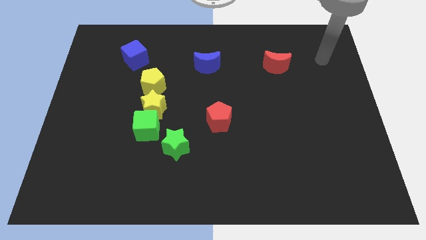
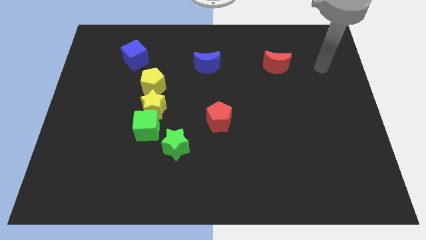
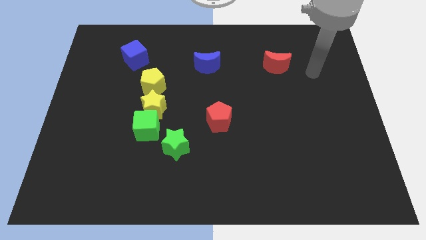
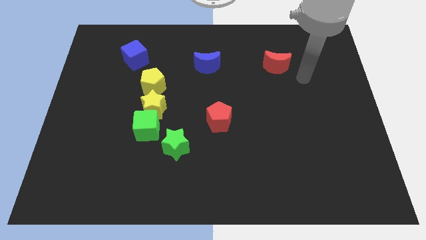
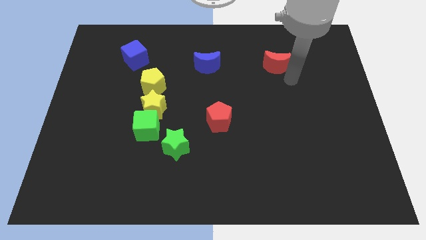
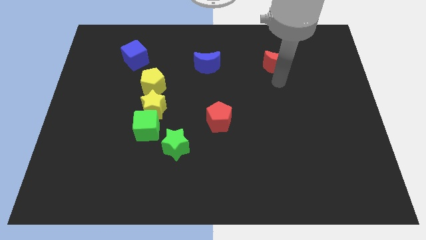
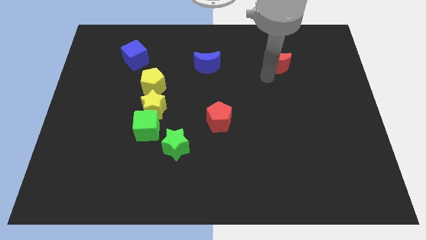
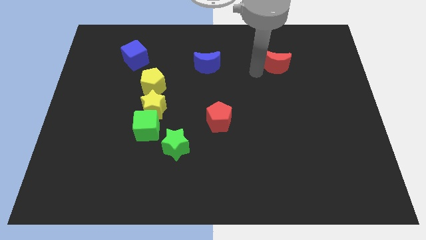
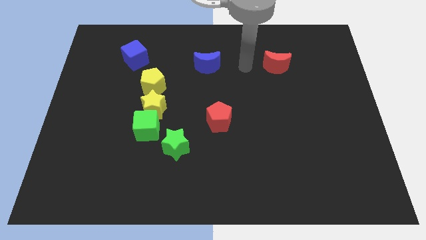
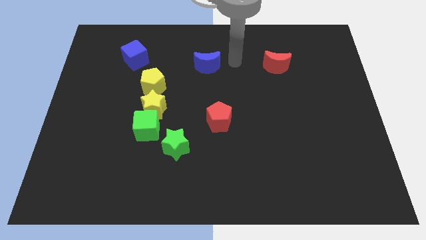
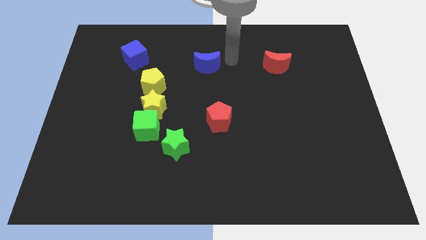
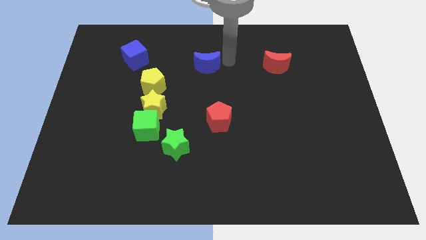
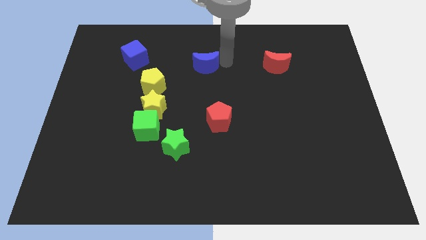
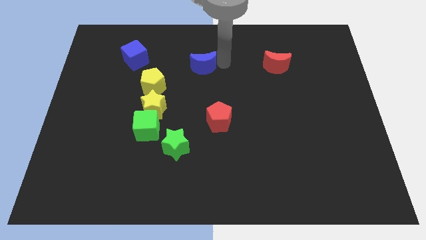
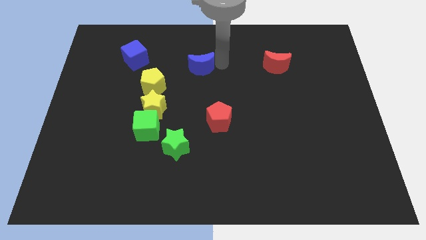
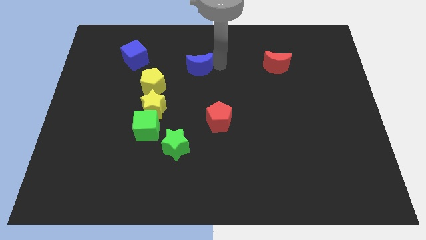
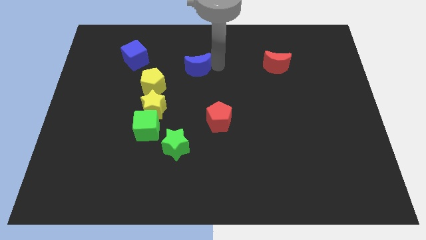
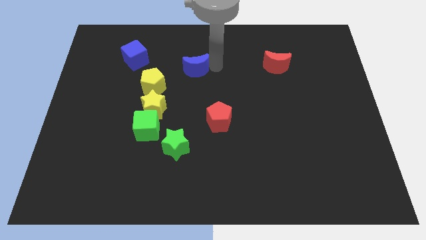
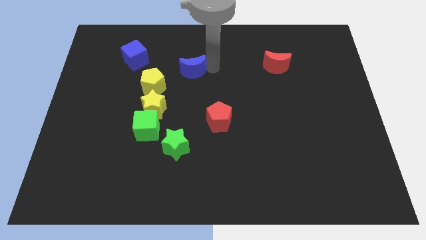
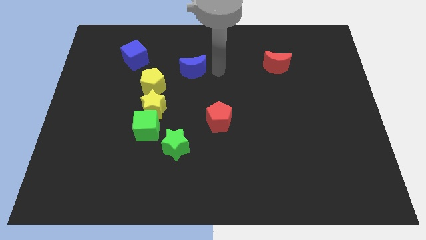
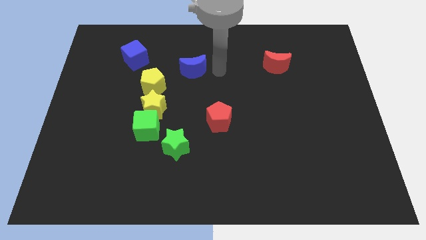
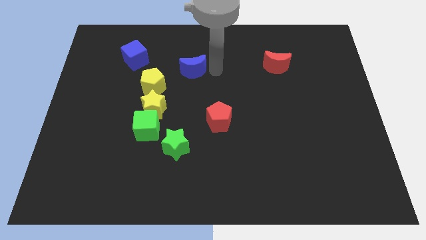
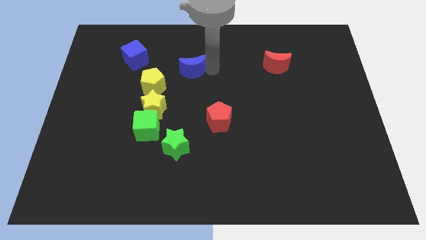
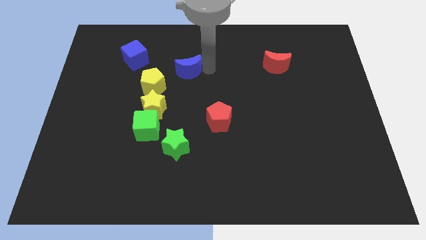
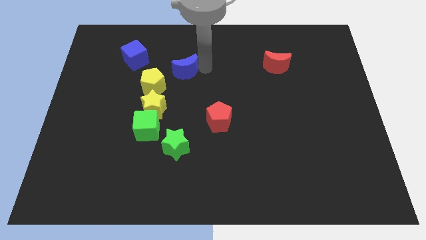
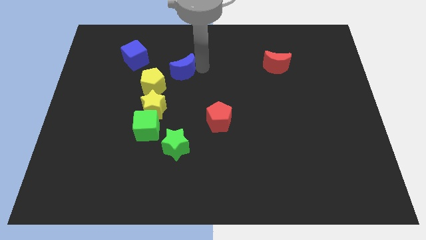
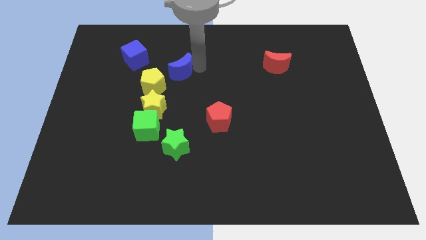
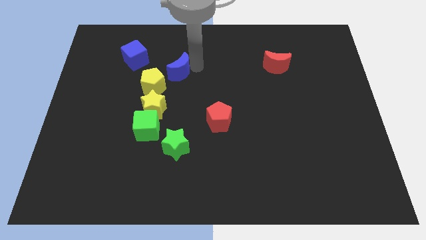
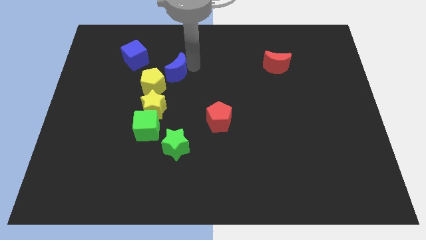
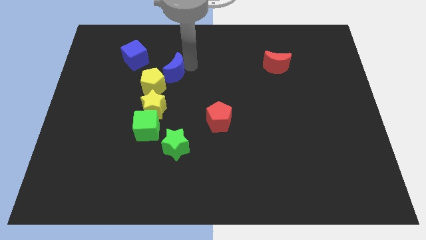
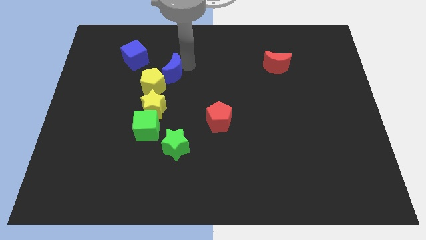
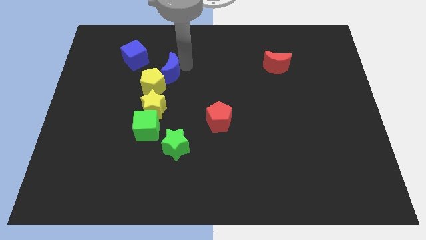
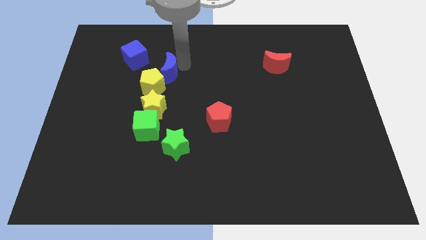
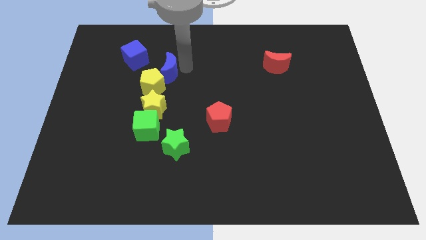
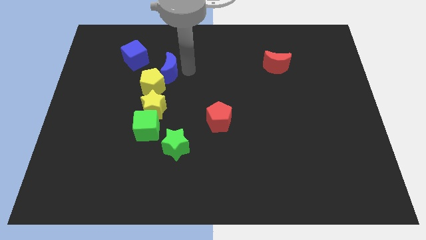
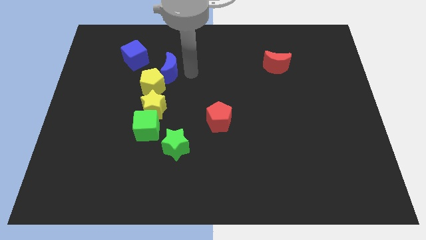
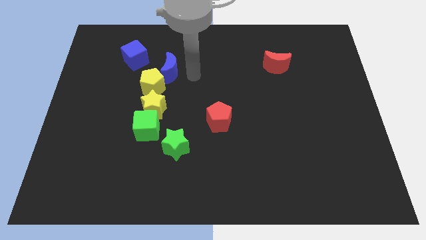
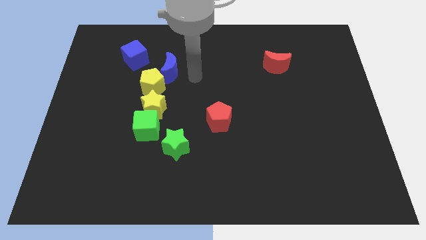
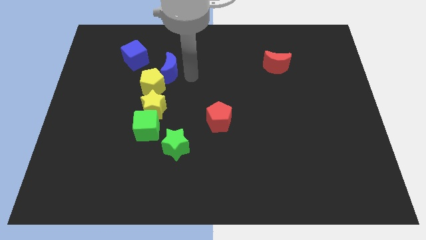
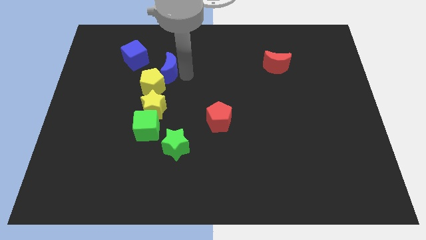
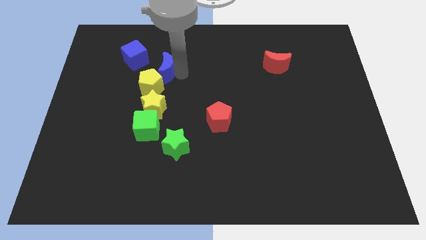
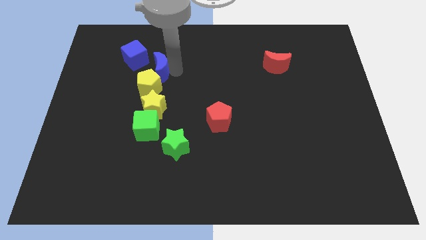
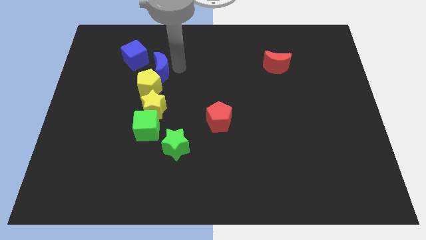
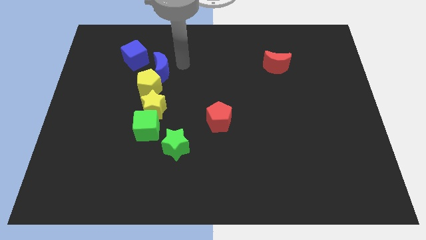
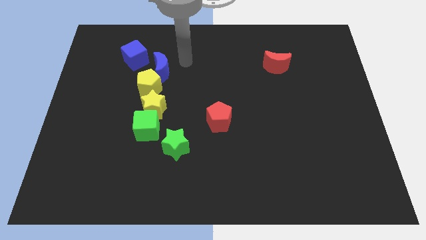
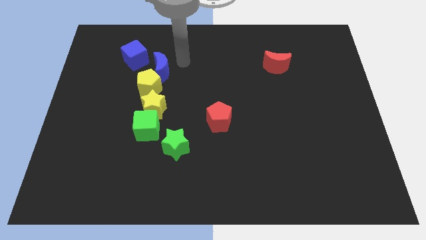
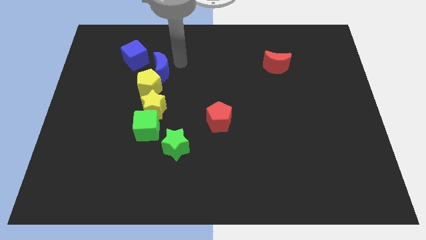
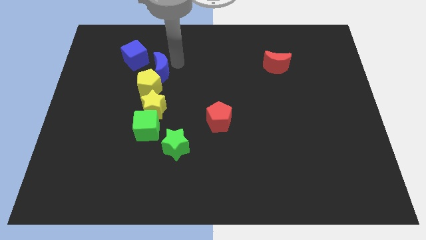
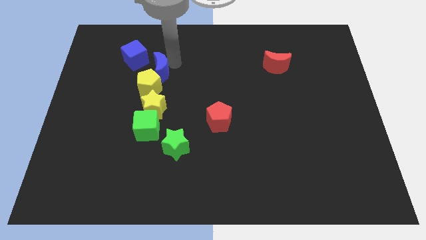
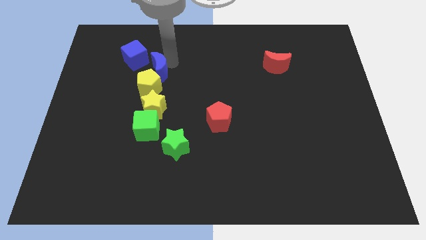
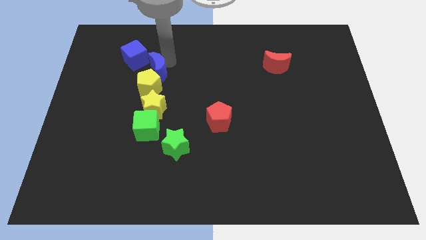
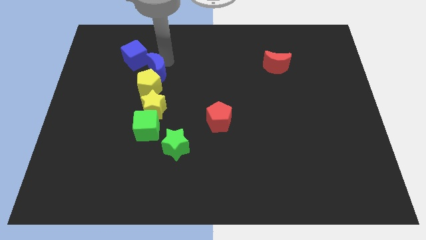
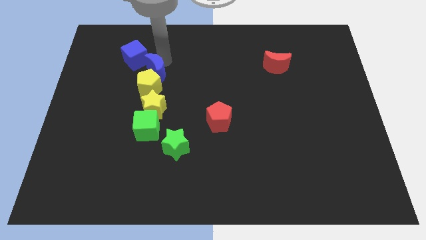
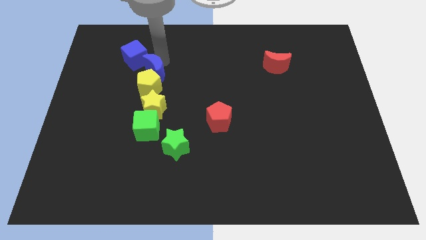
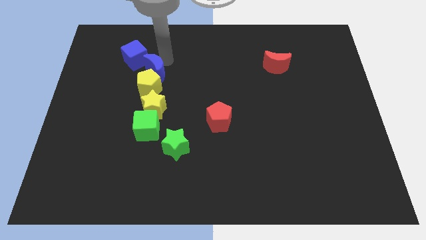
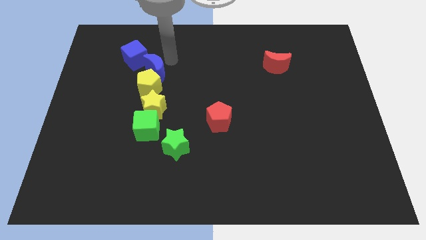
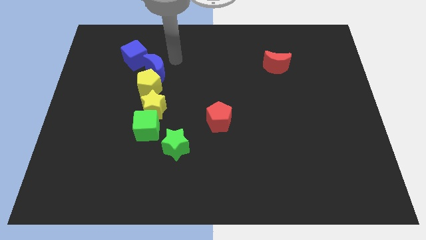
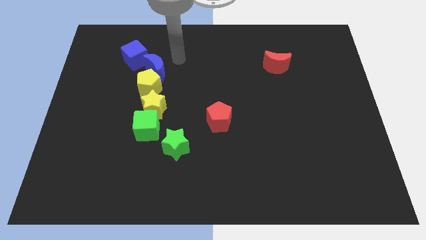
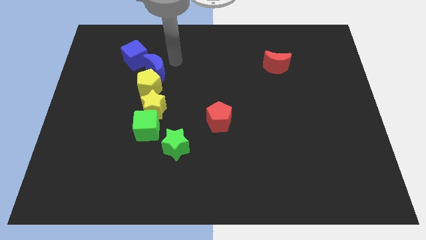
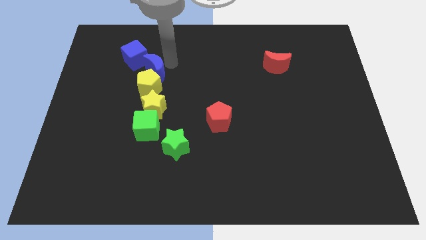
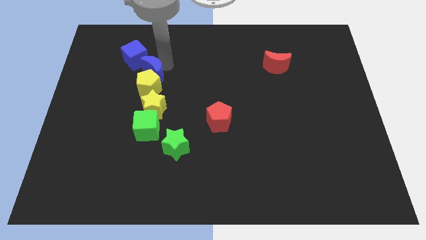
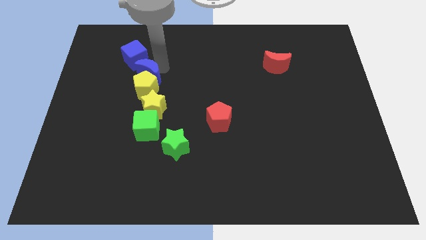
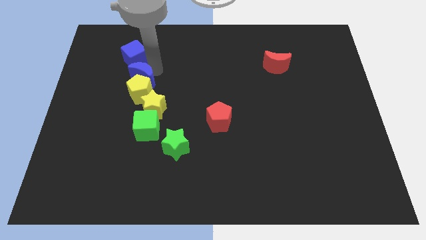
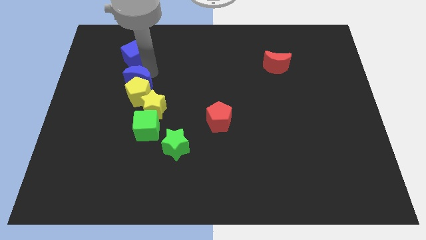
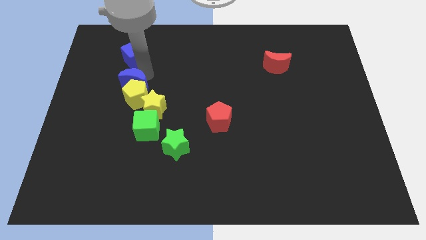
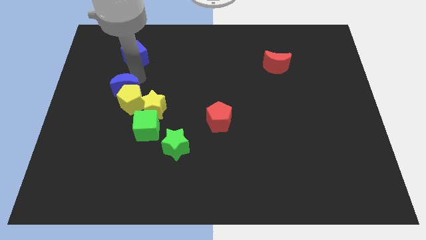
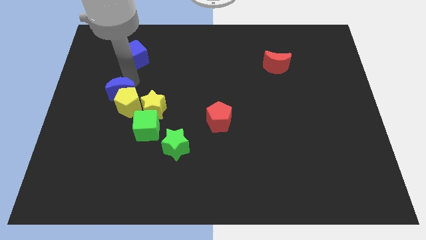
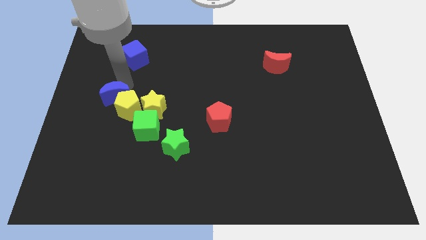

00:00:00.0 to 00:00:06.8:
push the blue moon diagonally up and to the left of the green cube

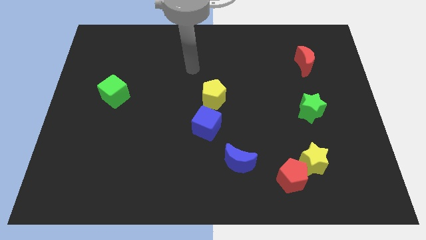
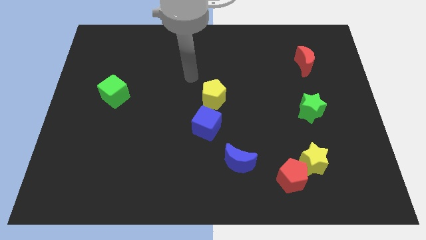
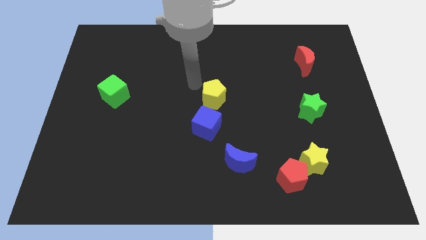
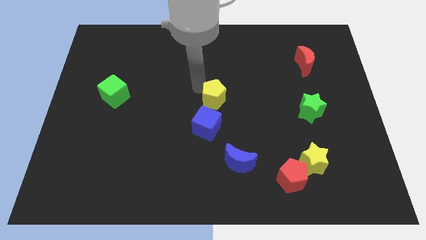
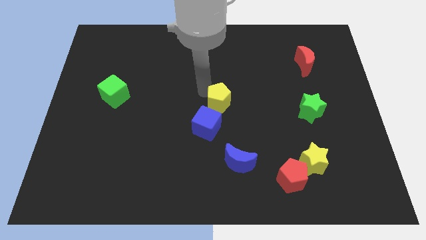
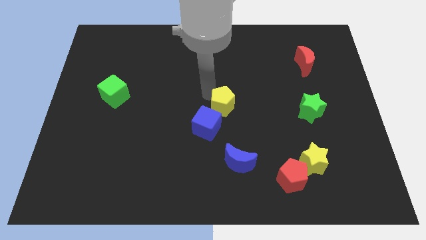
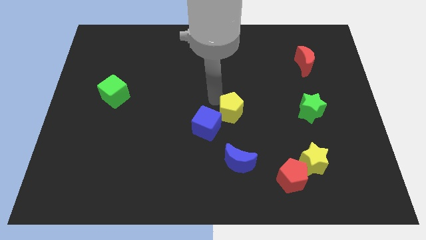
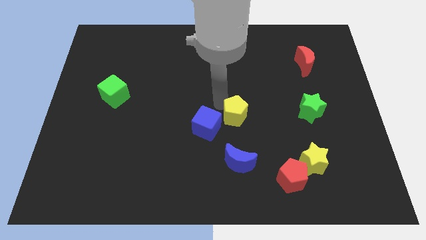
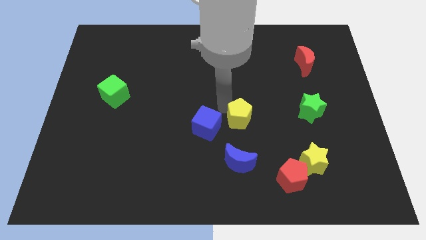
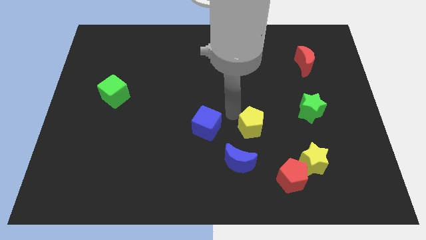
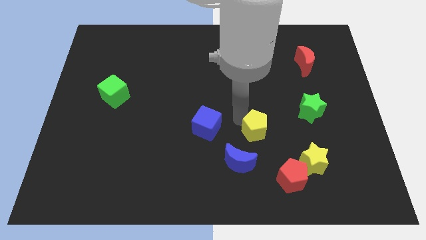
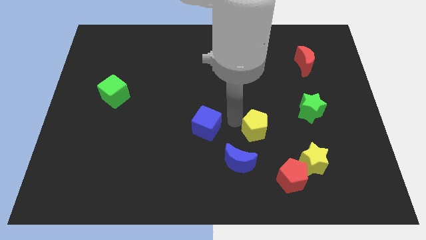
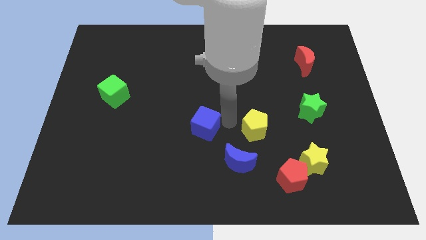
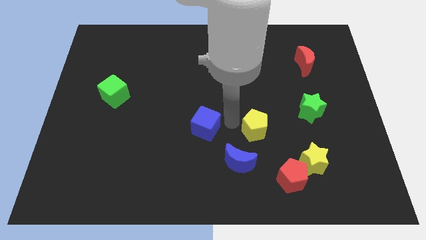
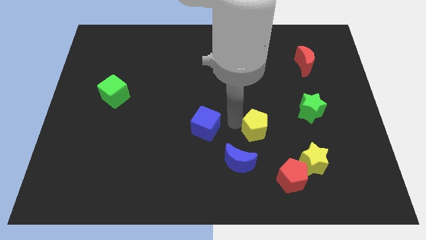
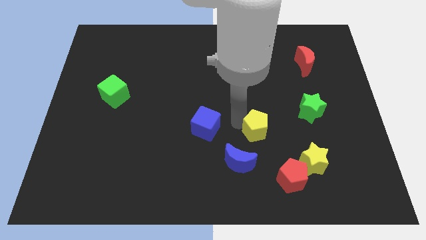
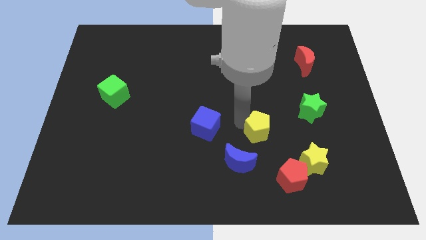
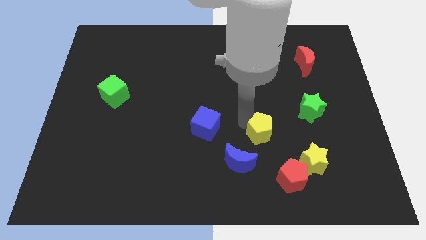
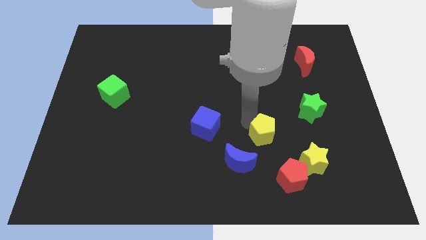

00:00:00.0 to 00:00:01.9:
slide the yellow pentagon above the red pentagon
